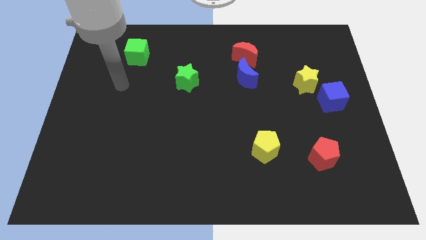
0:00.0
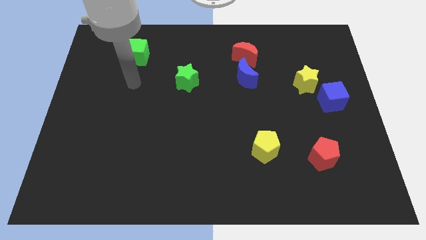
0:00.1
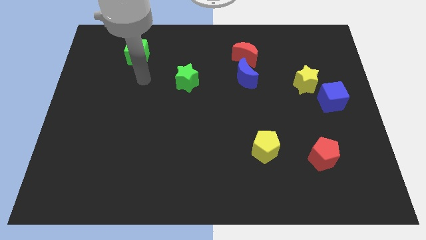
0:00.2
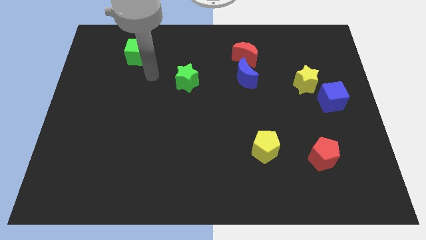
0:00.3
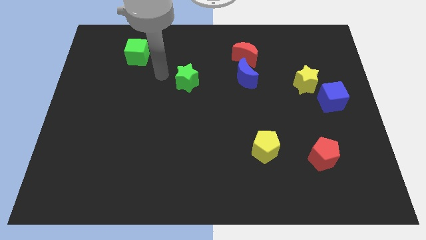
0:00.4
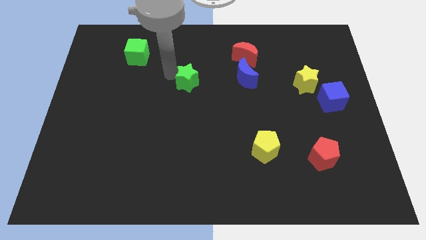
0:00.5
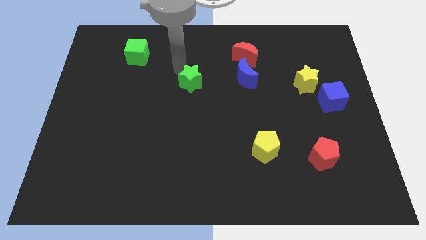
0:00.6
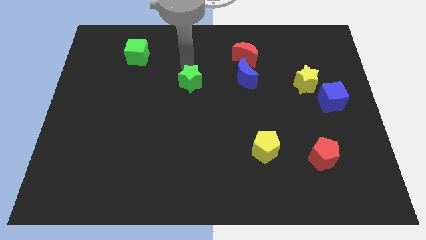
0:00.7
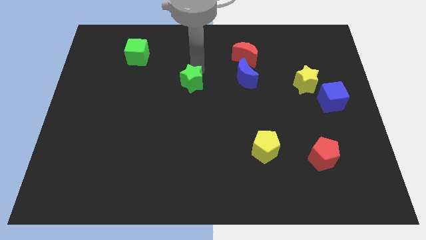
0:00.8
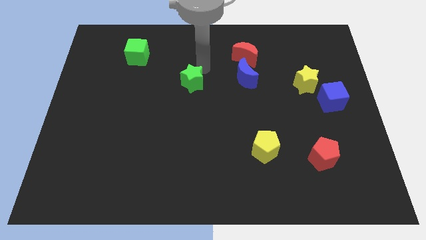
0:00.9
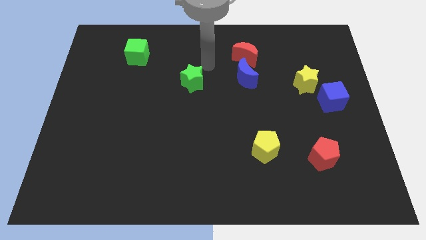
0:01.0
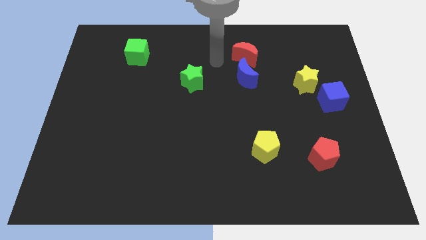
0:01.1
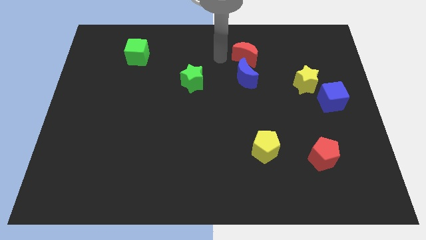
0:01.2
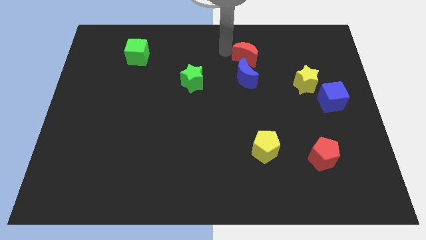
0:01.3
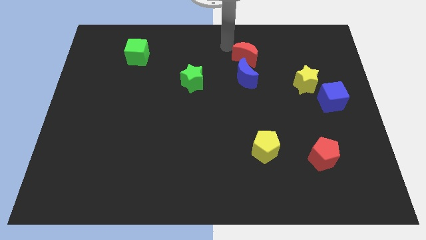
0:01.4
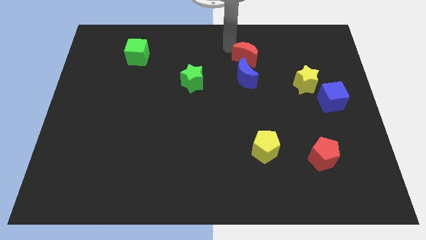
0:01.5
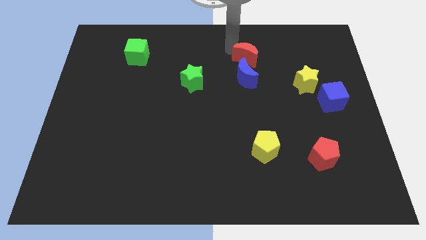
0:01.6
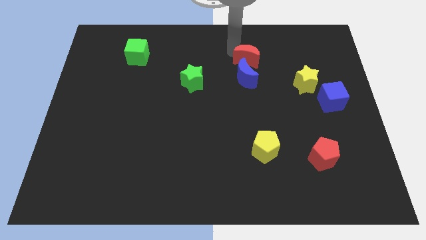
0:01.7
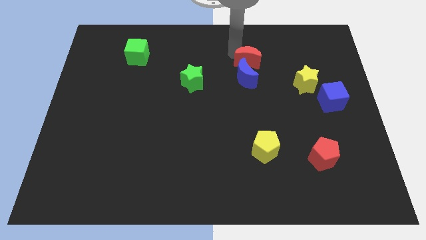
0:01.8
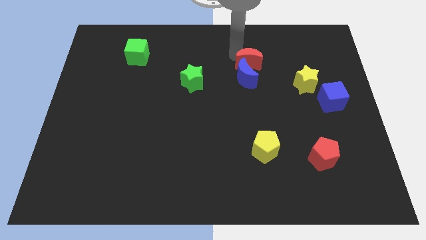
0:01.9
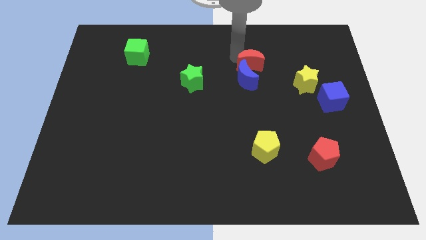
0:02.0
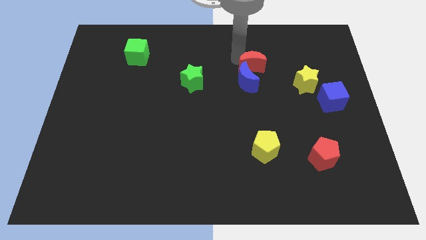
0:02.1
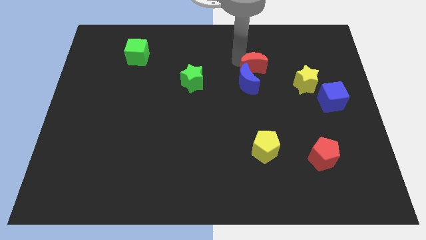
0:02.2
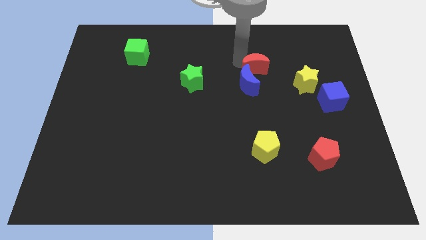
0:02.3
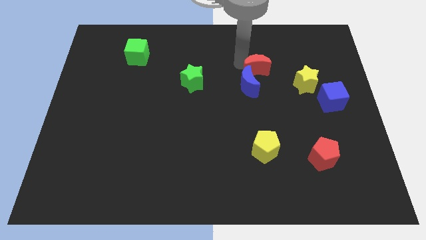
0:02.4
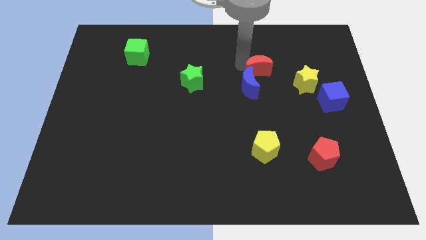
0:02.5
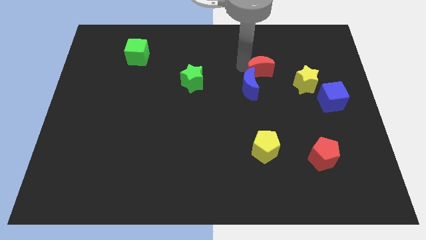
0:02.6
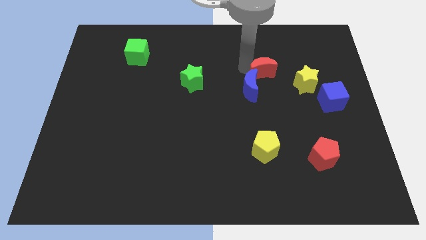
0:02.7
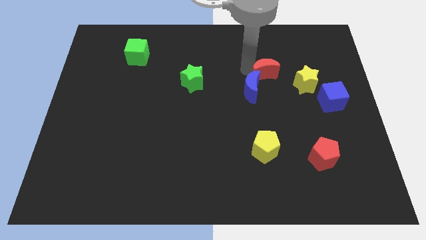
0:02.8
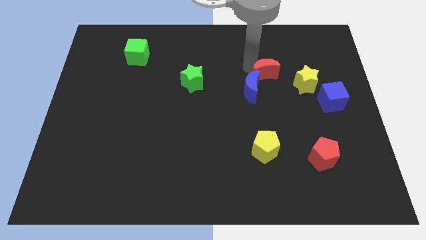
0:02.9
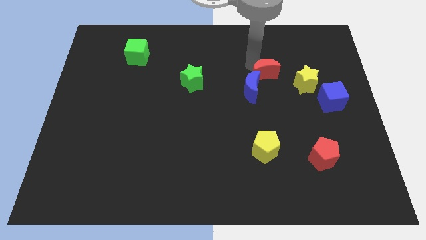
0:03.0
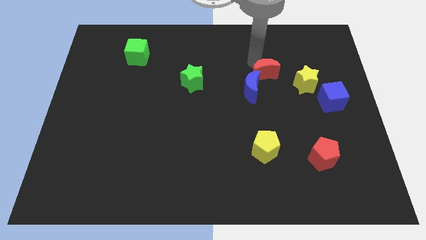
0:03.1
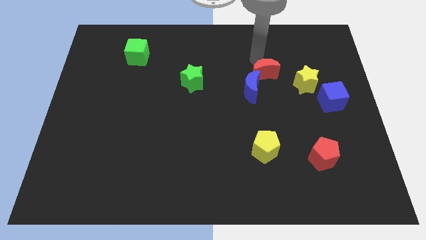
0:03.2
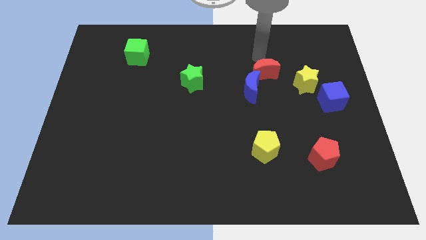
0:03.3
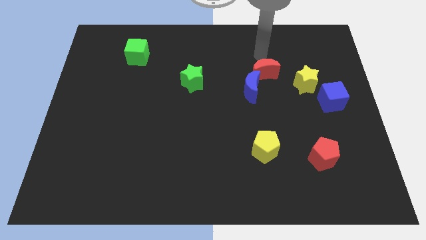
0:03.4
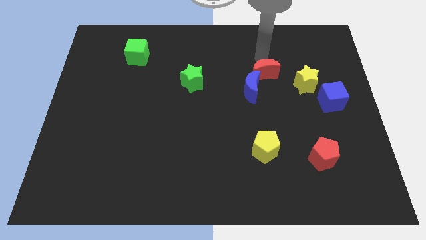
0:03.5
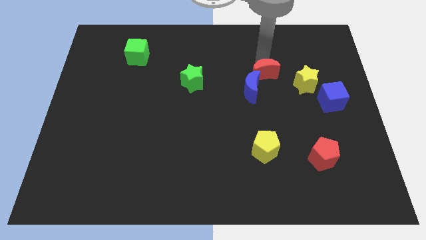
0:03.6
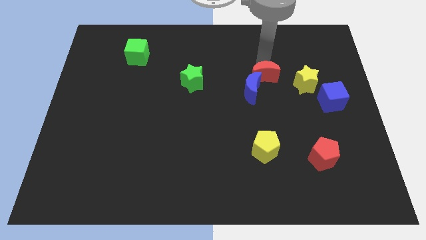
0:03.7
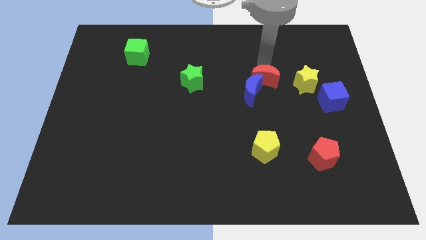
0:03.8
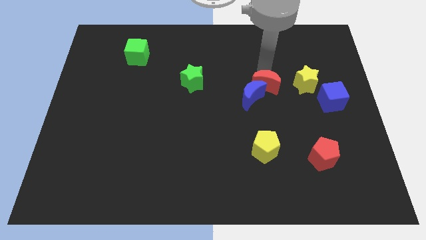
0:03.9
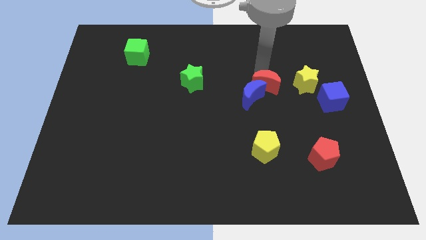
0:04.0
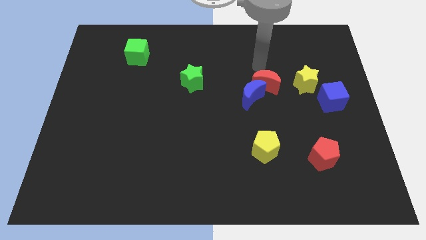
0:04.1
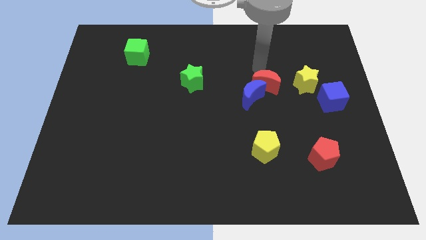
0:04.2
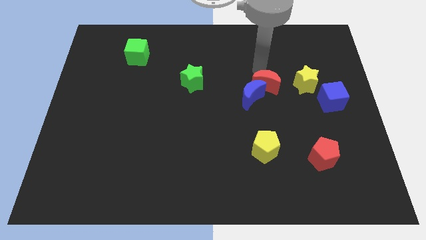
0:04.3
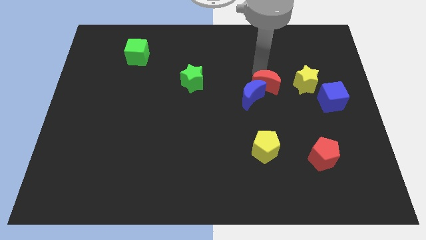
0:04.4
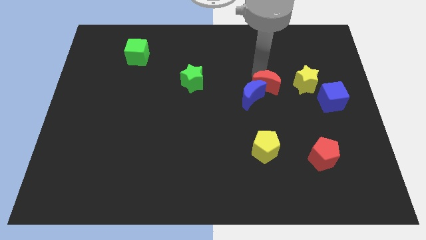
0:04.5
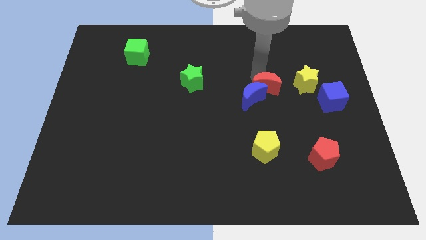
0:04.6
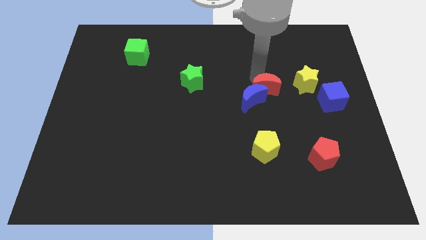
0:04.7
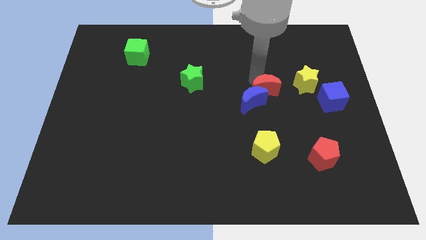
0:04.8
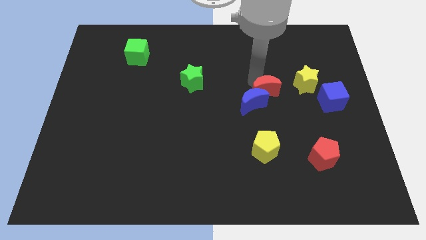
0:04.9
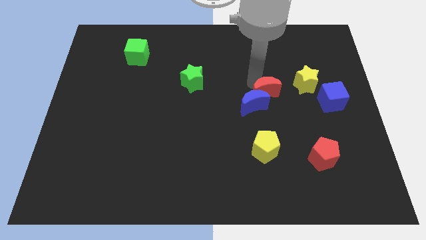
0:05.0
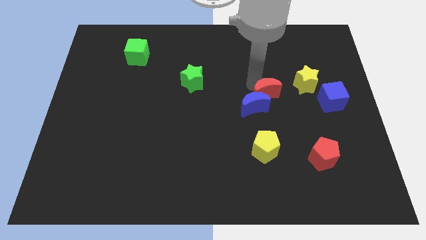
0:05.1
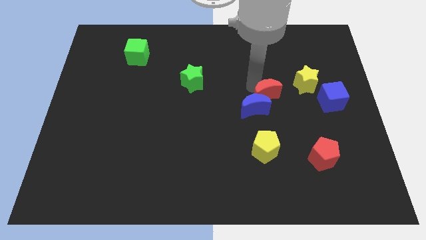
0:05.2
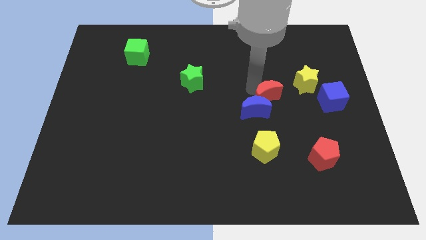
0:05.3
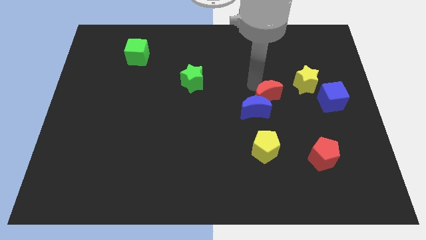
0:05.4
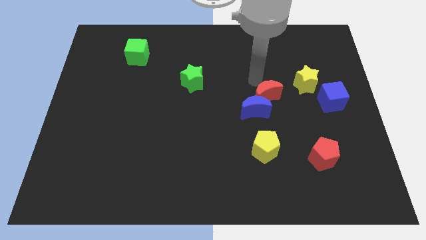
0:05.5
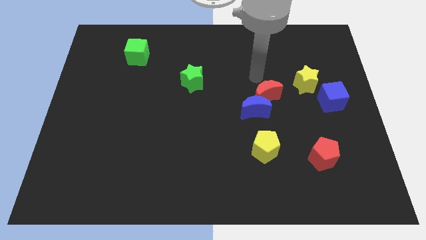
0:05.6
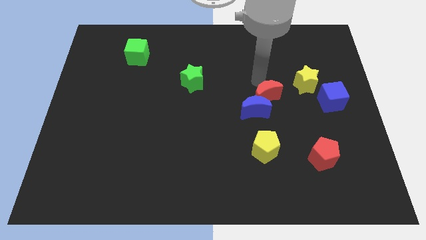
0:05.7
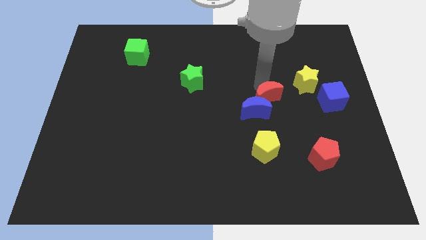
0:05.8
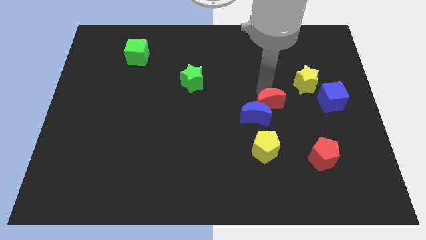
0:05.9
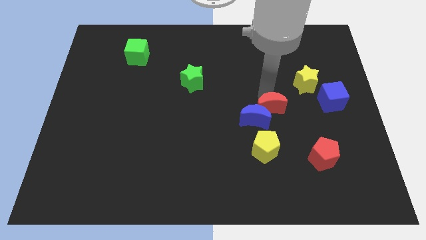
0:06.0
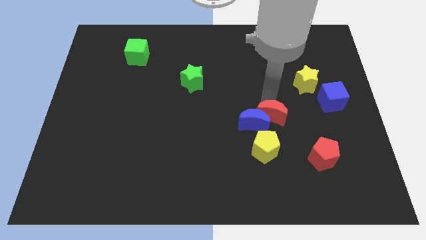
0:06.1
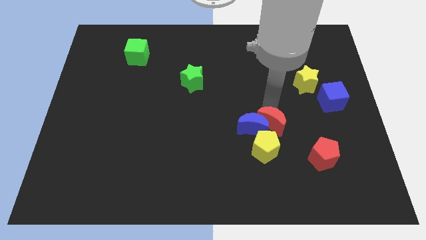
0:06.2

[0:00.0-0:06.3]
push the red moon down

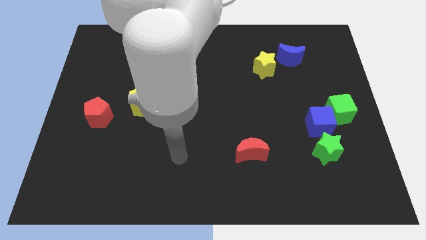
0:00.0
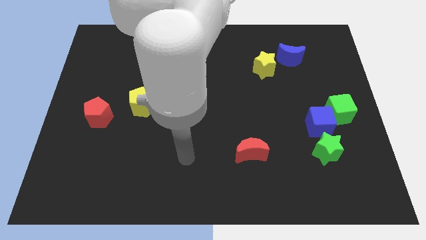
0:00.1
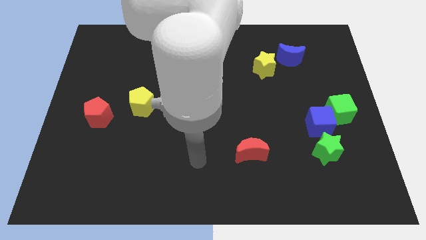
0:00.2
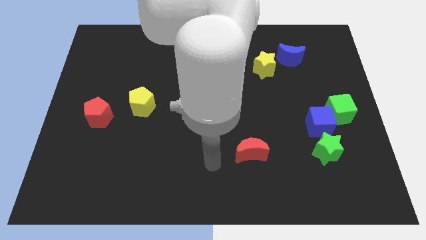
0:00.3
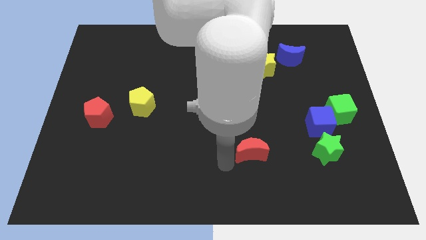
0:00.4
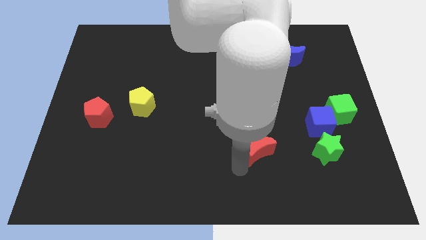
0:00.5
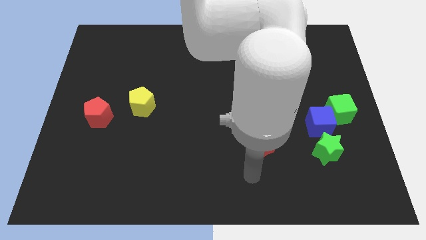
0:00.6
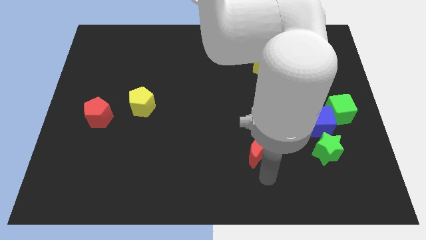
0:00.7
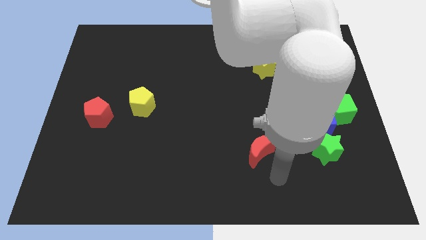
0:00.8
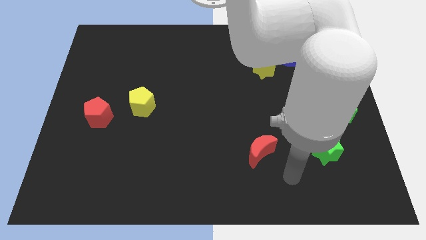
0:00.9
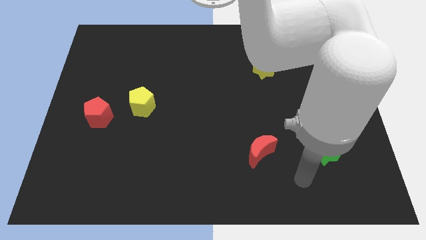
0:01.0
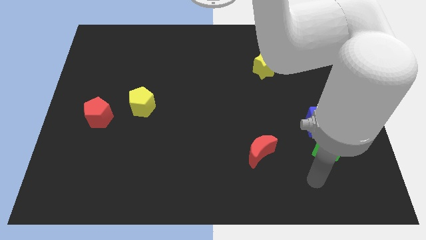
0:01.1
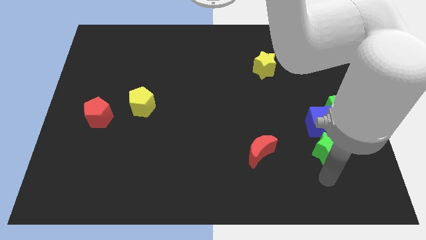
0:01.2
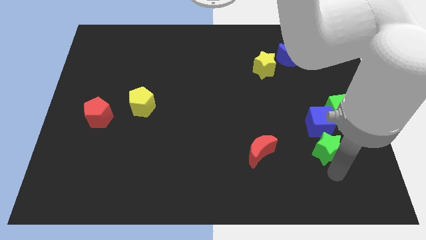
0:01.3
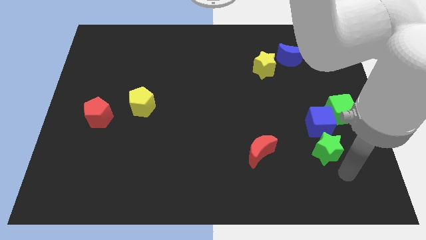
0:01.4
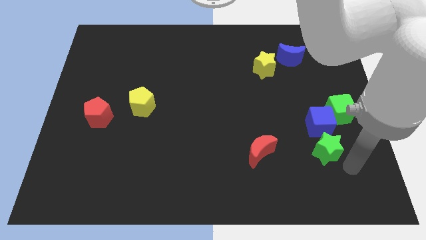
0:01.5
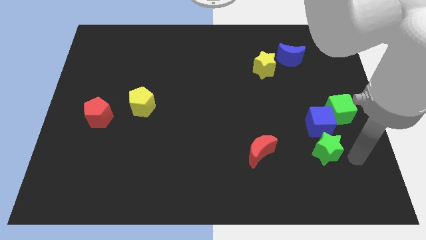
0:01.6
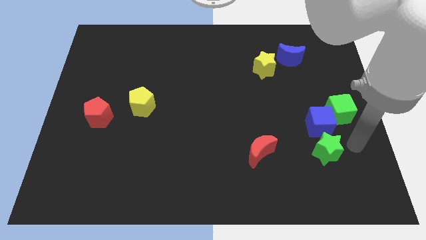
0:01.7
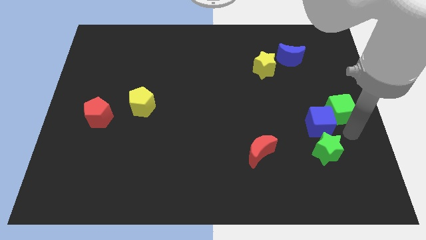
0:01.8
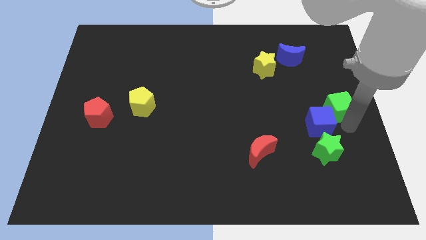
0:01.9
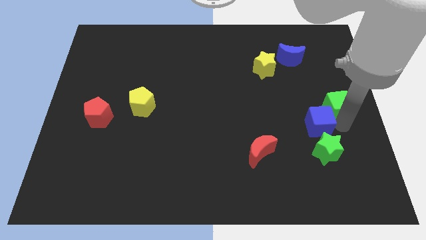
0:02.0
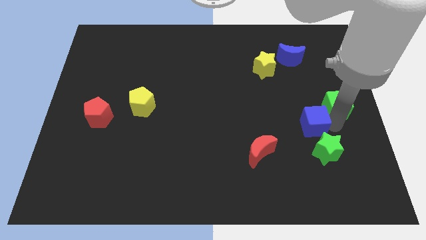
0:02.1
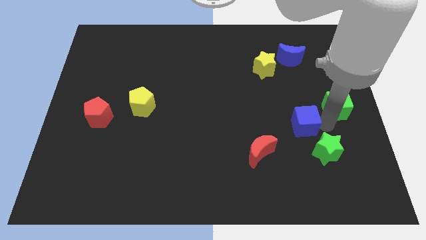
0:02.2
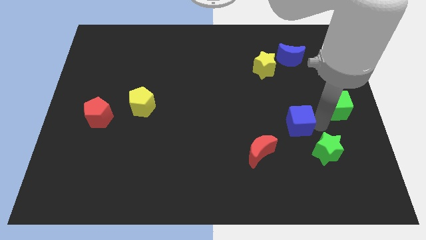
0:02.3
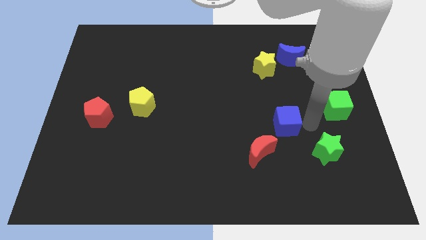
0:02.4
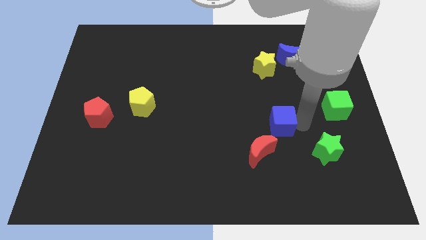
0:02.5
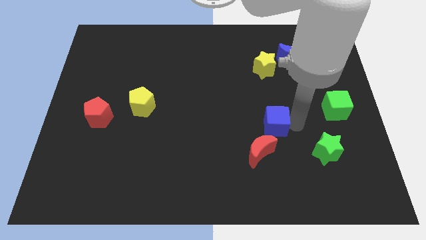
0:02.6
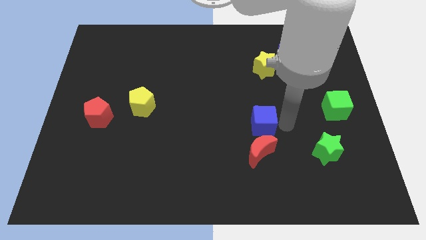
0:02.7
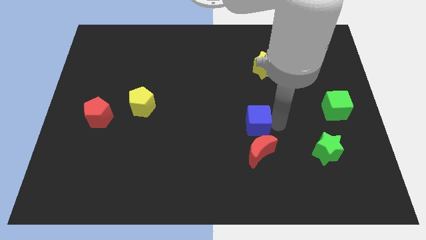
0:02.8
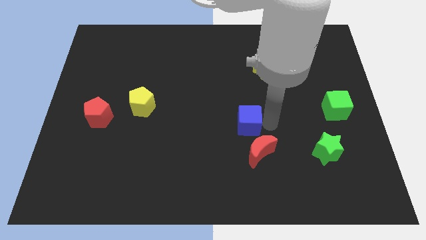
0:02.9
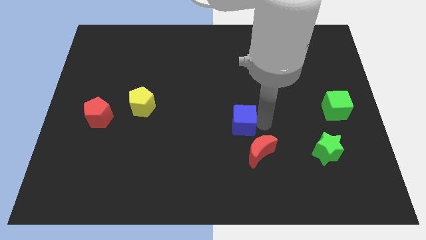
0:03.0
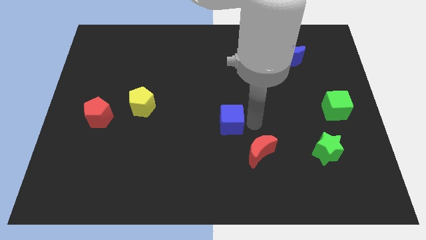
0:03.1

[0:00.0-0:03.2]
push the blue cube to the left
